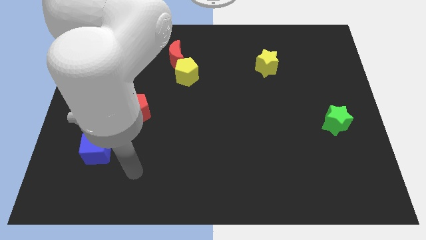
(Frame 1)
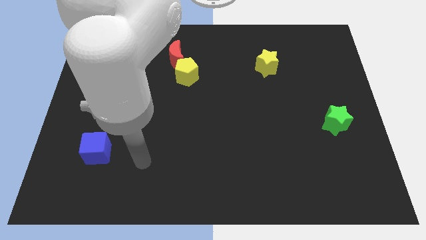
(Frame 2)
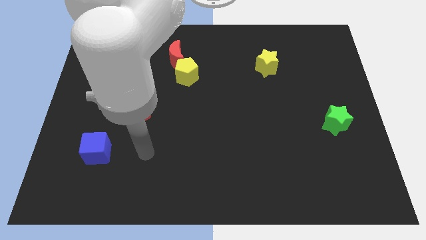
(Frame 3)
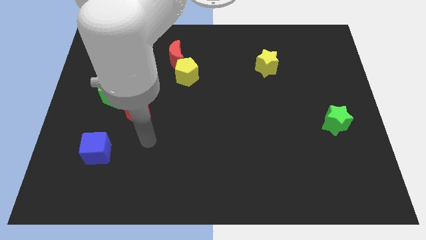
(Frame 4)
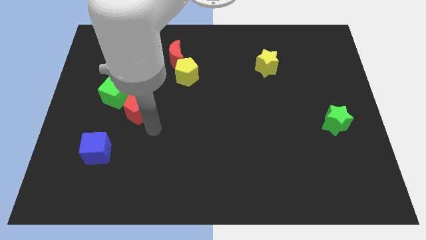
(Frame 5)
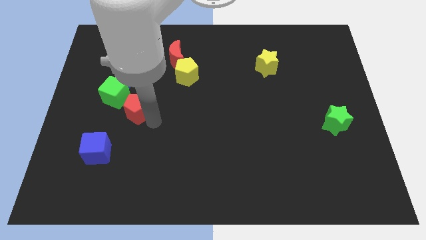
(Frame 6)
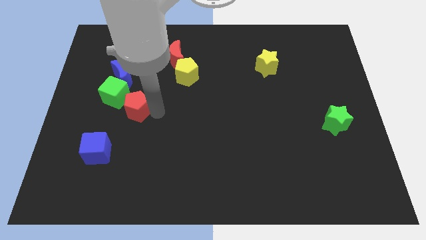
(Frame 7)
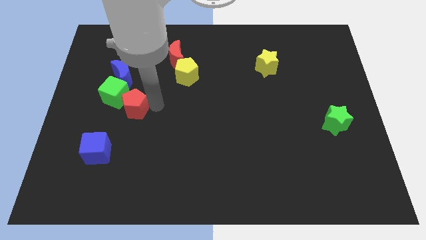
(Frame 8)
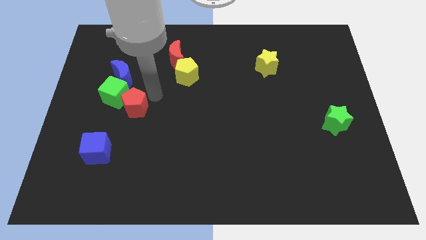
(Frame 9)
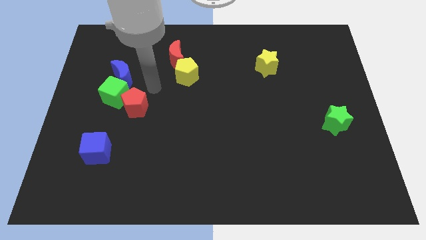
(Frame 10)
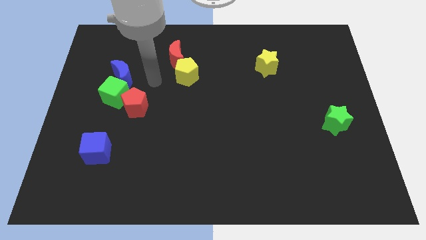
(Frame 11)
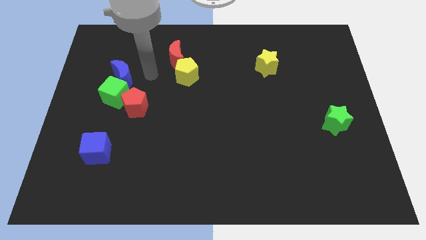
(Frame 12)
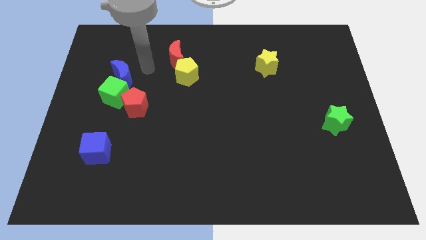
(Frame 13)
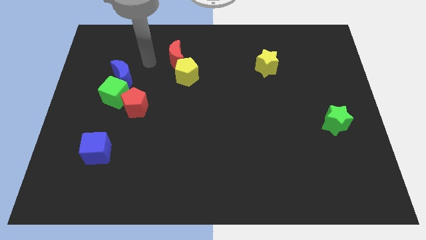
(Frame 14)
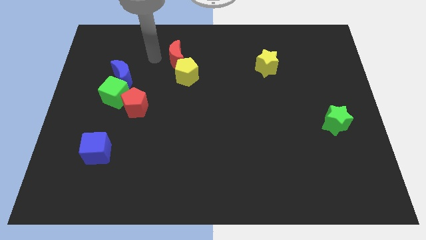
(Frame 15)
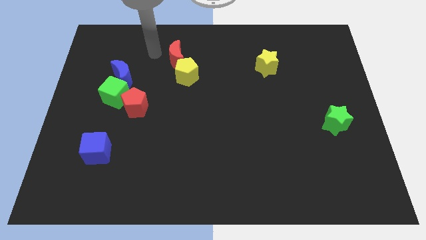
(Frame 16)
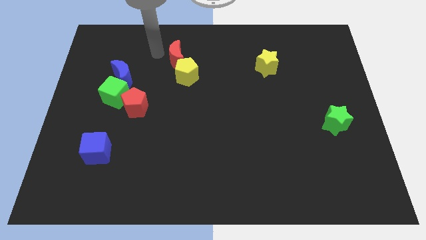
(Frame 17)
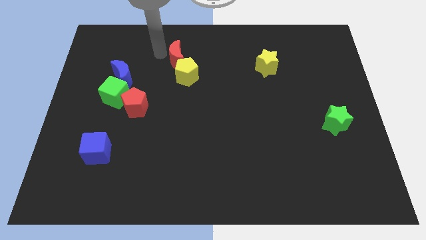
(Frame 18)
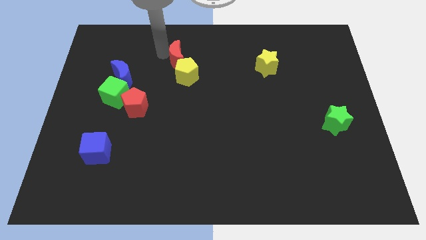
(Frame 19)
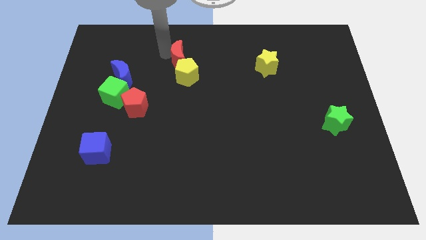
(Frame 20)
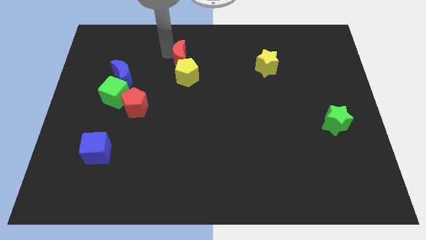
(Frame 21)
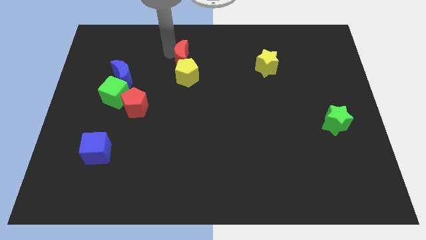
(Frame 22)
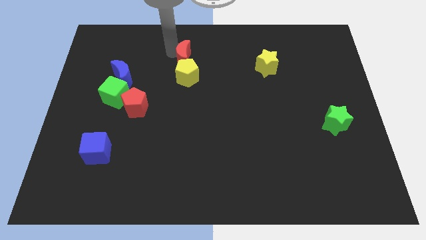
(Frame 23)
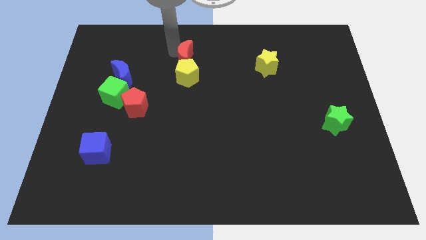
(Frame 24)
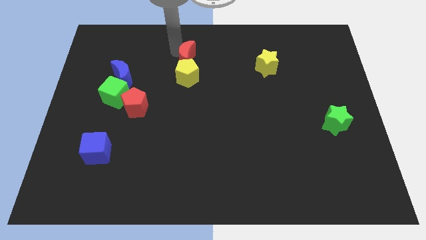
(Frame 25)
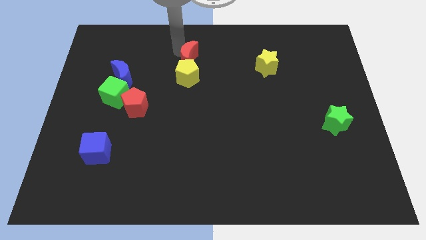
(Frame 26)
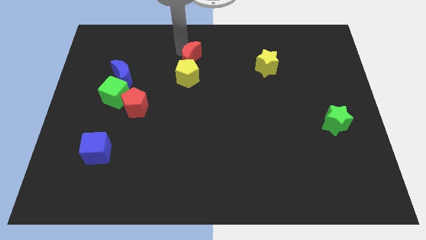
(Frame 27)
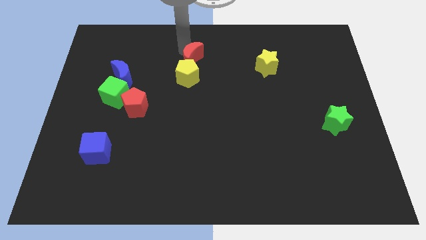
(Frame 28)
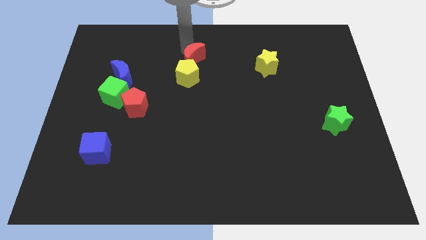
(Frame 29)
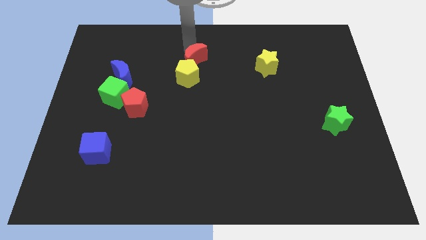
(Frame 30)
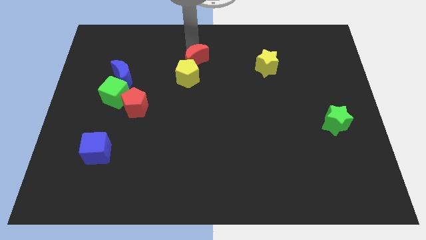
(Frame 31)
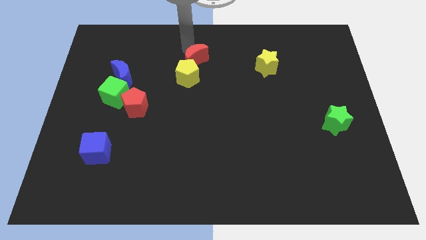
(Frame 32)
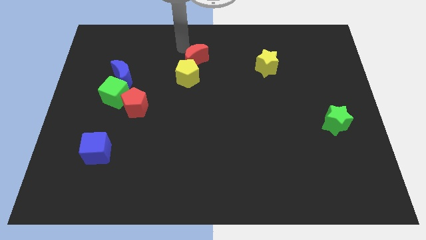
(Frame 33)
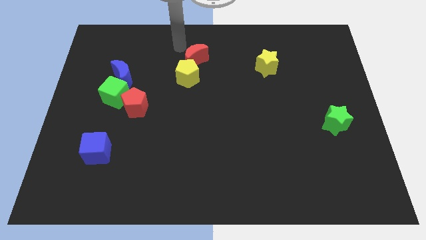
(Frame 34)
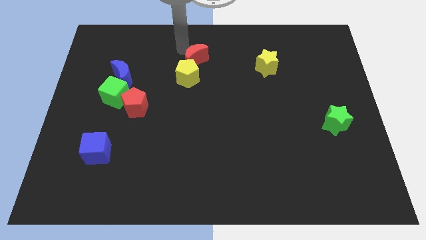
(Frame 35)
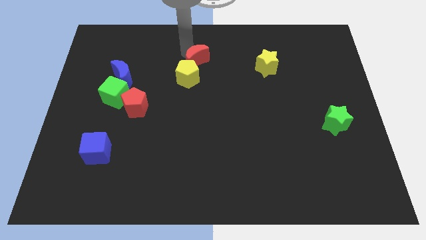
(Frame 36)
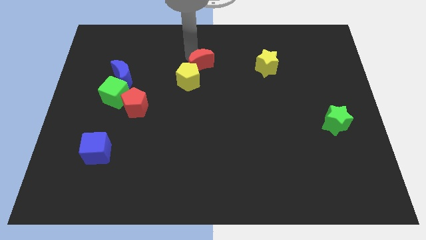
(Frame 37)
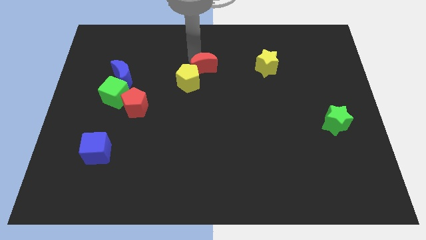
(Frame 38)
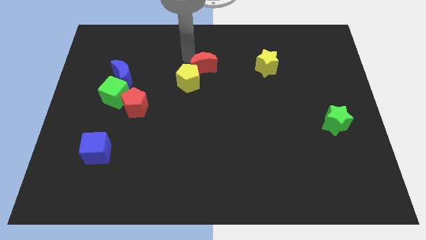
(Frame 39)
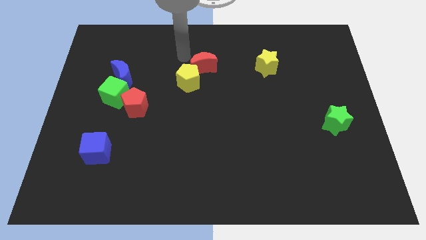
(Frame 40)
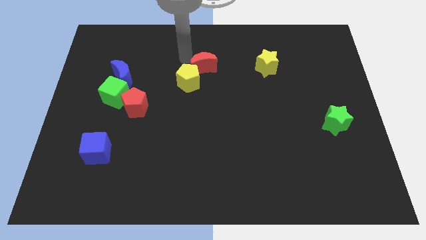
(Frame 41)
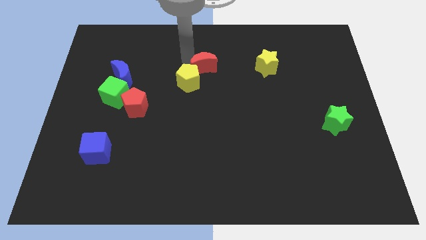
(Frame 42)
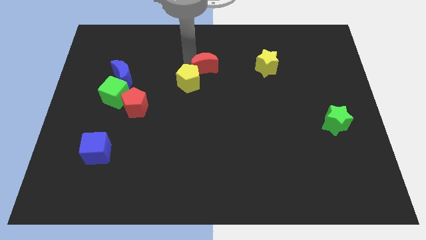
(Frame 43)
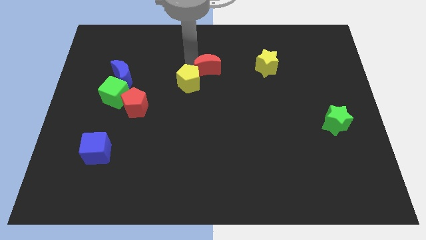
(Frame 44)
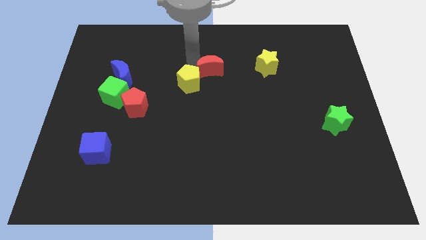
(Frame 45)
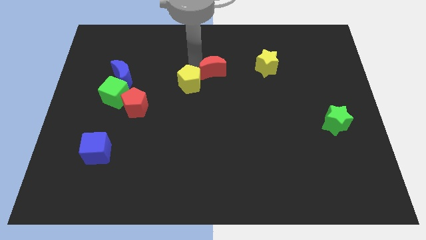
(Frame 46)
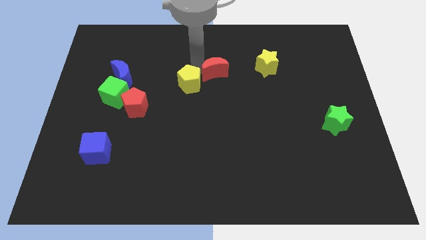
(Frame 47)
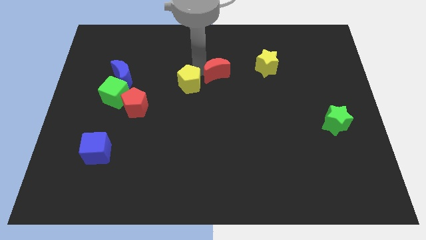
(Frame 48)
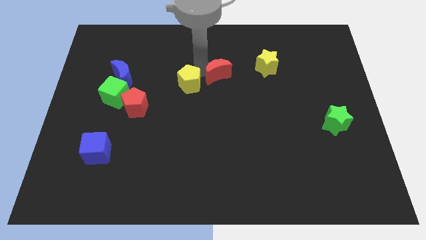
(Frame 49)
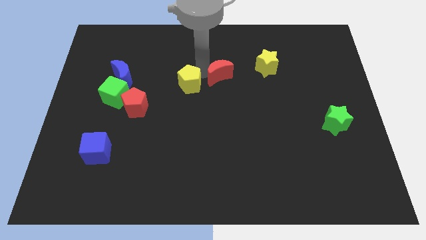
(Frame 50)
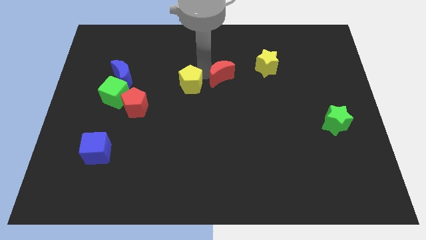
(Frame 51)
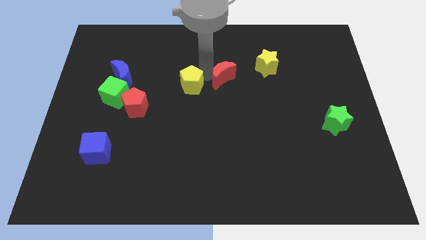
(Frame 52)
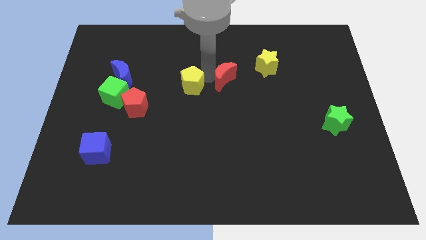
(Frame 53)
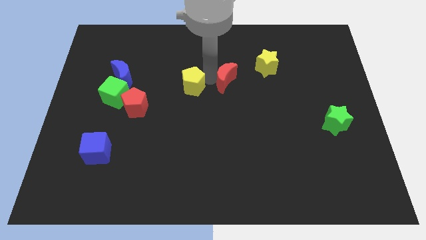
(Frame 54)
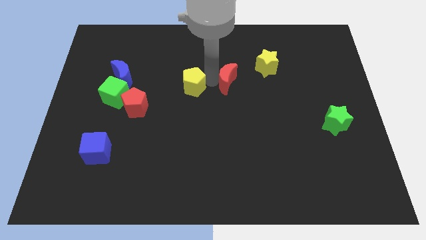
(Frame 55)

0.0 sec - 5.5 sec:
push the red moon diagonally down and to the left of the yellow star
